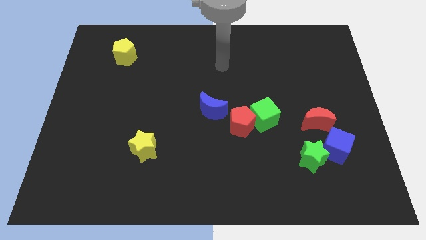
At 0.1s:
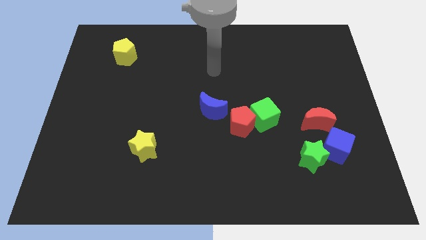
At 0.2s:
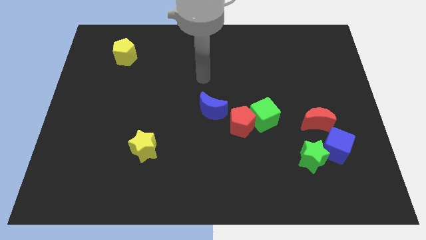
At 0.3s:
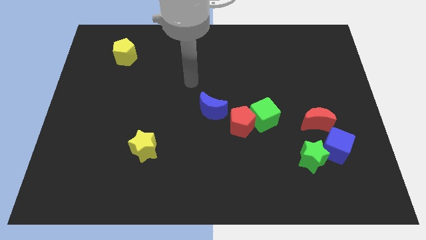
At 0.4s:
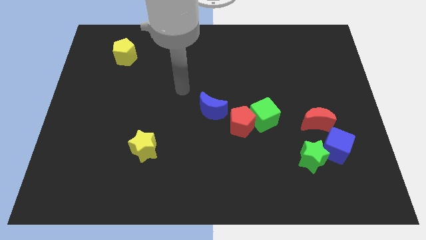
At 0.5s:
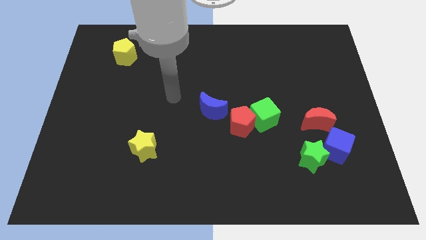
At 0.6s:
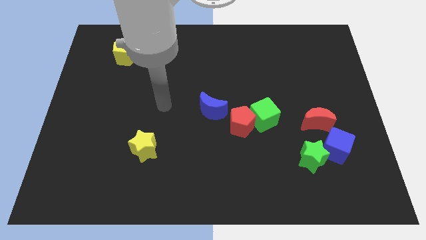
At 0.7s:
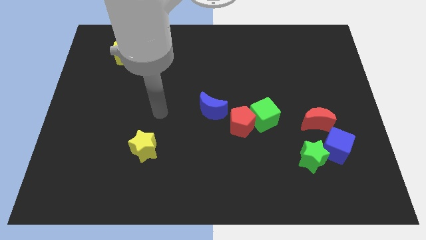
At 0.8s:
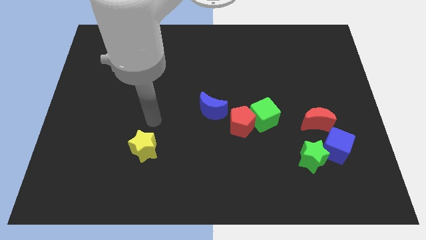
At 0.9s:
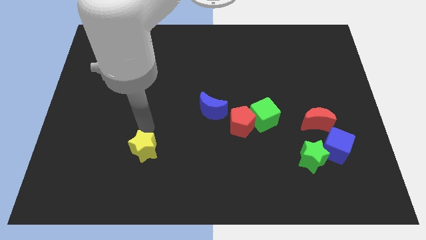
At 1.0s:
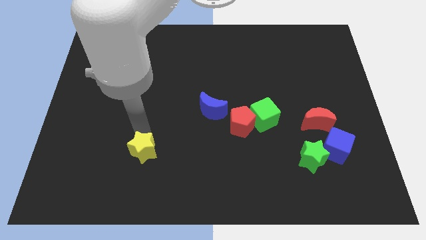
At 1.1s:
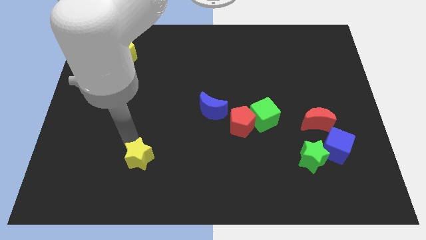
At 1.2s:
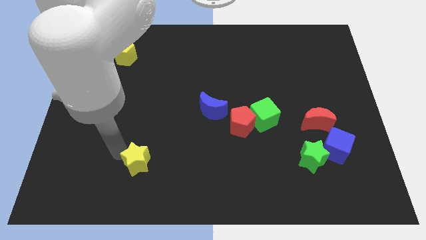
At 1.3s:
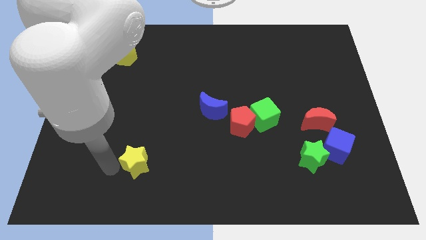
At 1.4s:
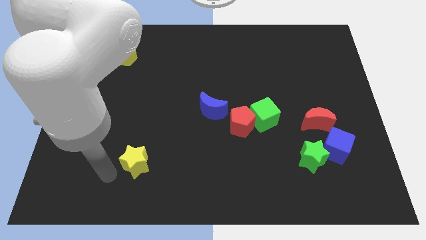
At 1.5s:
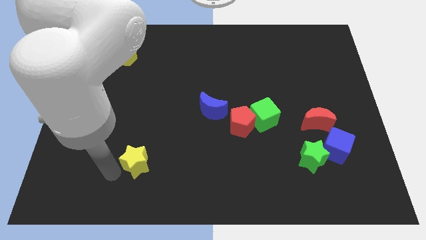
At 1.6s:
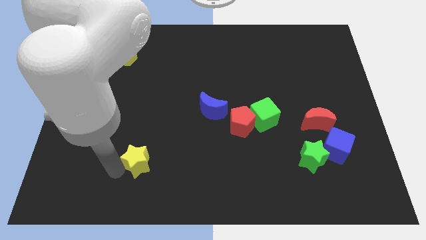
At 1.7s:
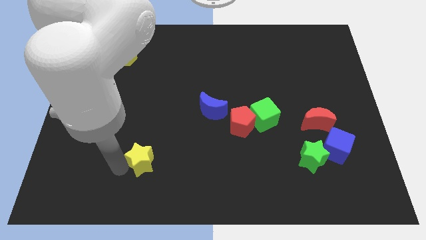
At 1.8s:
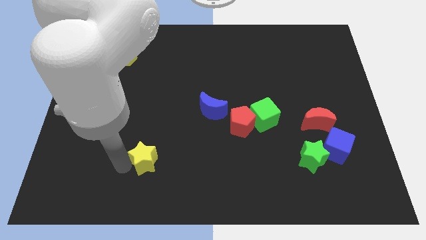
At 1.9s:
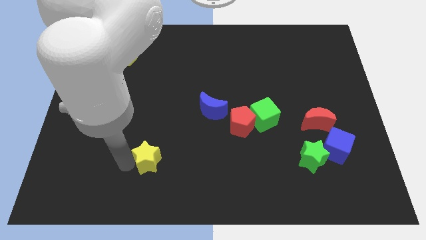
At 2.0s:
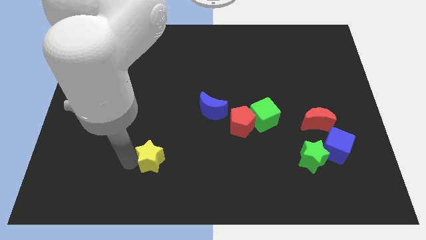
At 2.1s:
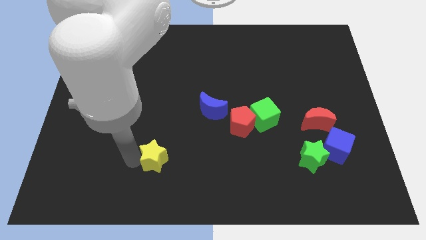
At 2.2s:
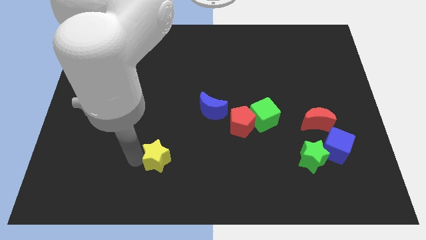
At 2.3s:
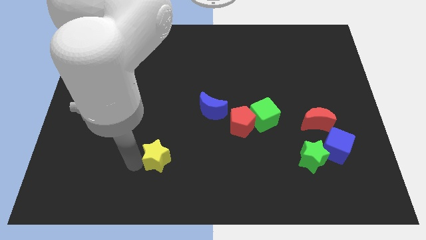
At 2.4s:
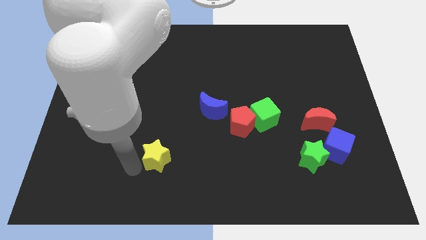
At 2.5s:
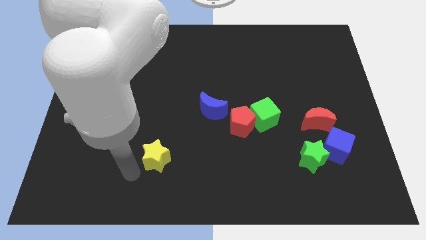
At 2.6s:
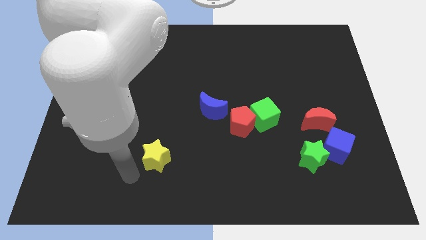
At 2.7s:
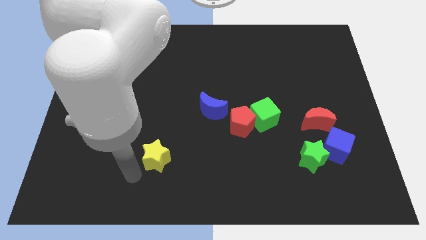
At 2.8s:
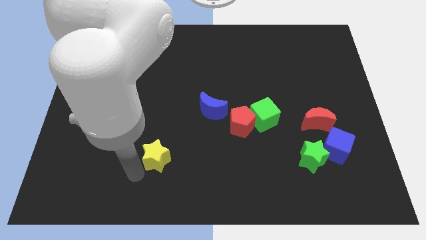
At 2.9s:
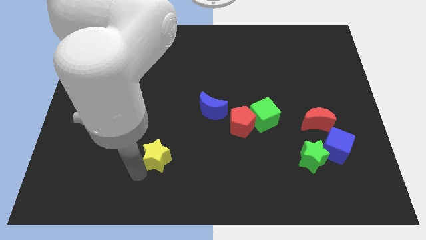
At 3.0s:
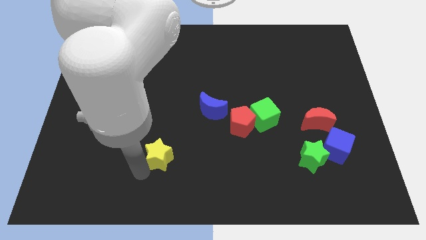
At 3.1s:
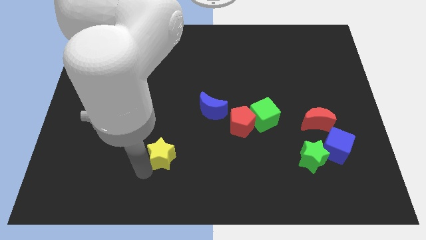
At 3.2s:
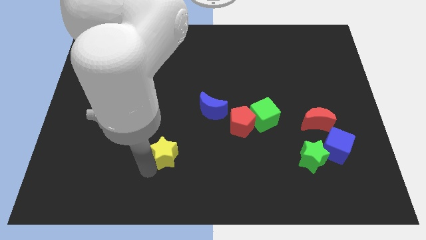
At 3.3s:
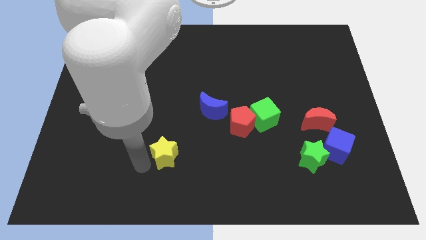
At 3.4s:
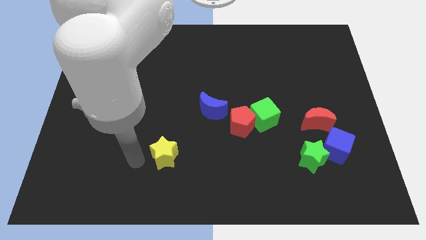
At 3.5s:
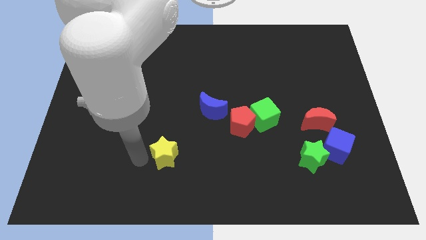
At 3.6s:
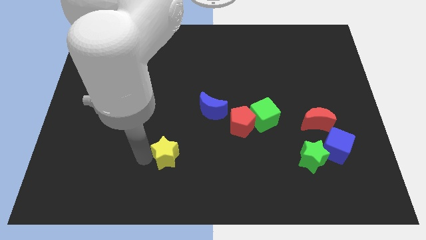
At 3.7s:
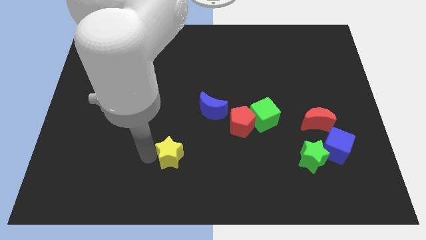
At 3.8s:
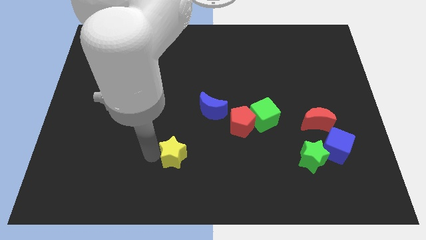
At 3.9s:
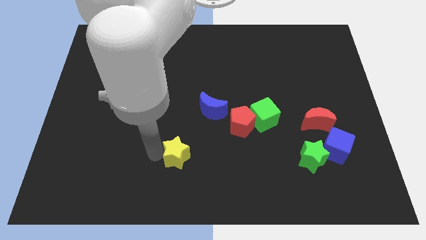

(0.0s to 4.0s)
move the yellow star a little bit to the right

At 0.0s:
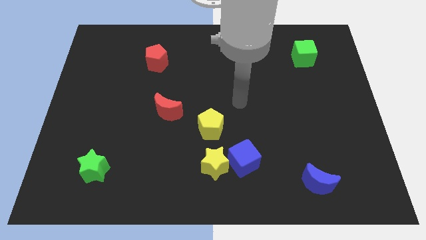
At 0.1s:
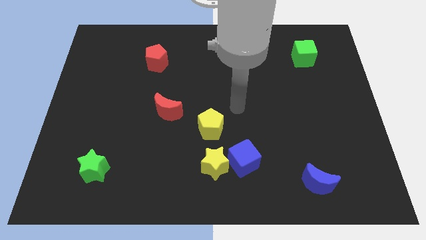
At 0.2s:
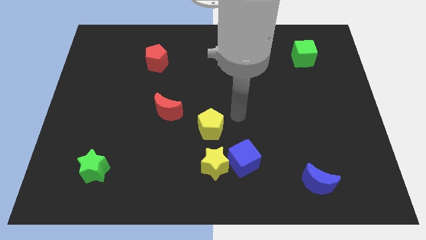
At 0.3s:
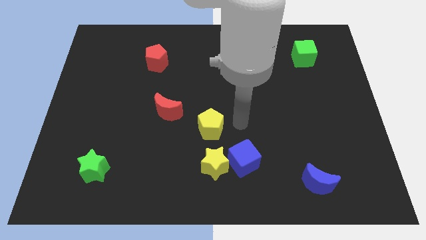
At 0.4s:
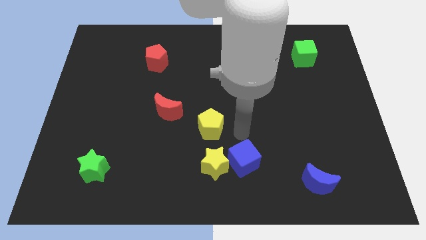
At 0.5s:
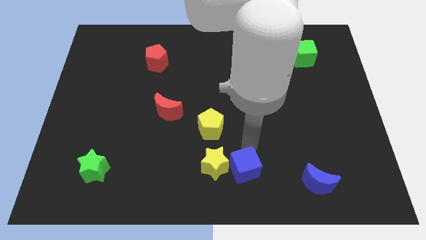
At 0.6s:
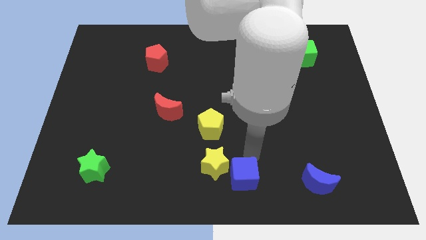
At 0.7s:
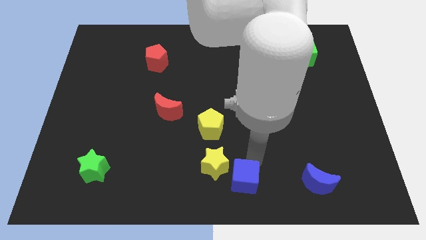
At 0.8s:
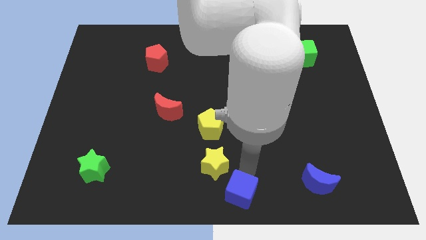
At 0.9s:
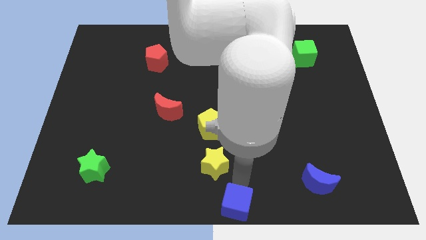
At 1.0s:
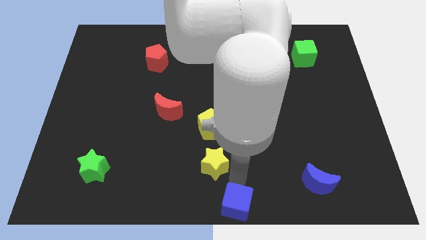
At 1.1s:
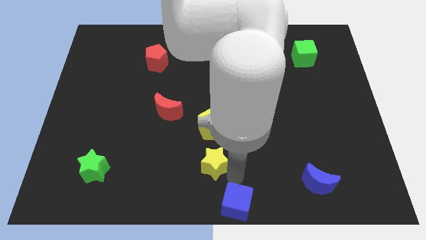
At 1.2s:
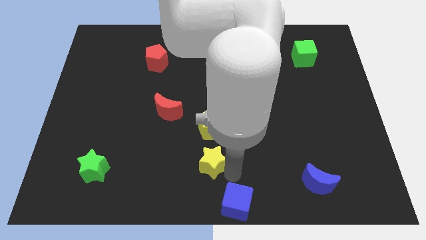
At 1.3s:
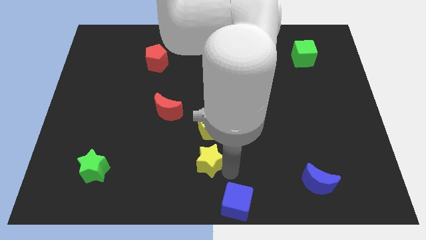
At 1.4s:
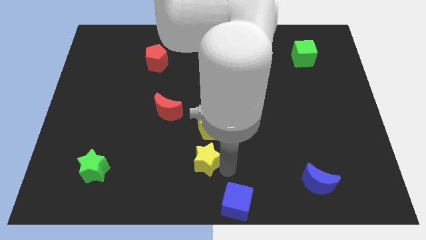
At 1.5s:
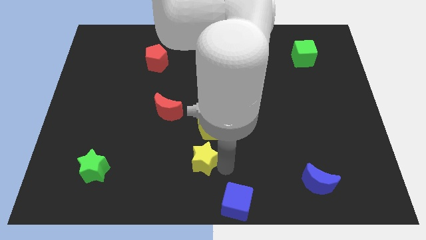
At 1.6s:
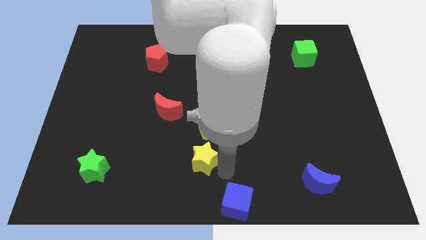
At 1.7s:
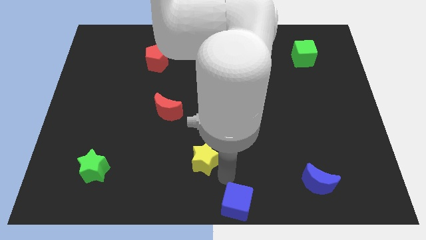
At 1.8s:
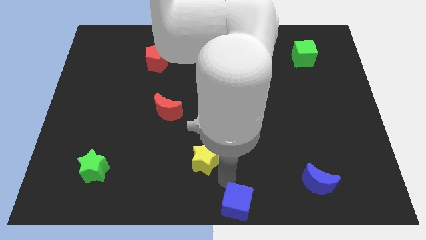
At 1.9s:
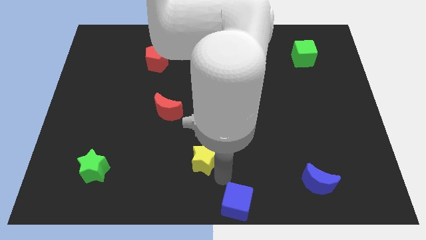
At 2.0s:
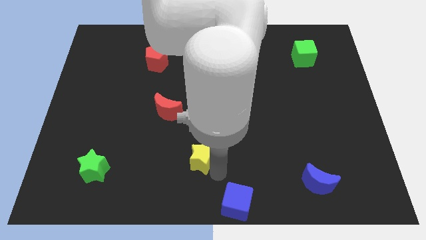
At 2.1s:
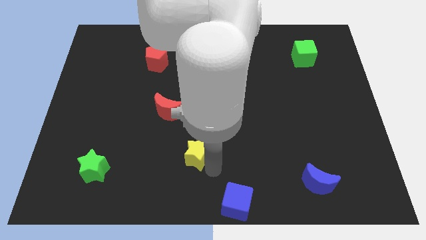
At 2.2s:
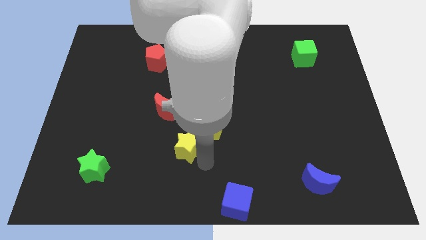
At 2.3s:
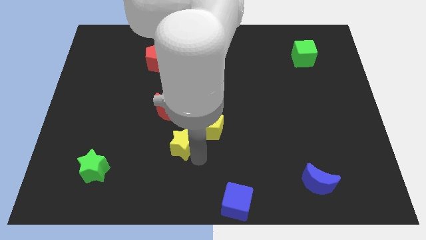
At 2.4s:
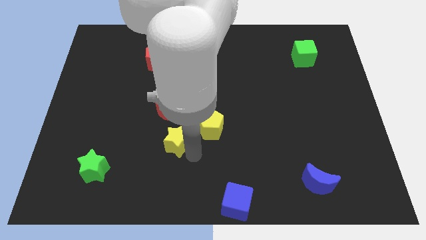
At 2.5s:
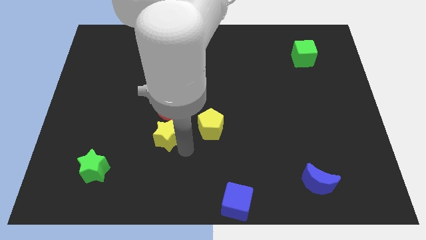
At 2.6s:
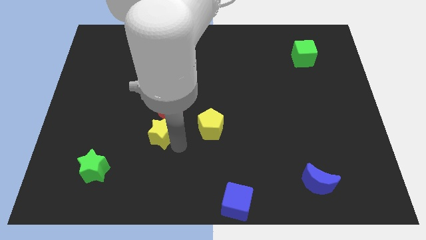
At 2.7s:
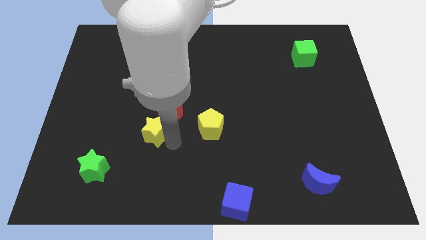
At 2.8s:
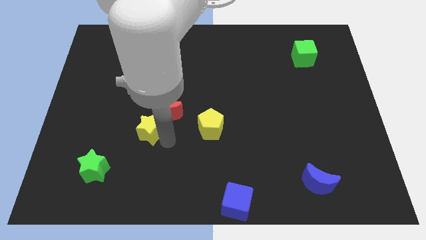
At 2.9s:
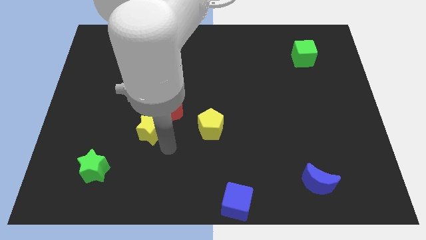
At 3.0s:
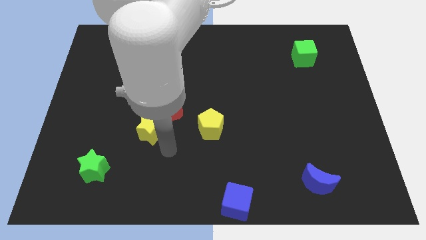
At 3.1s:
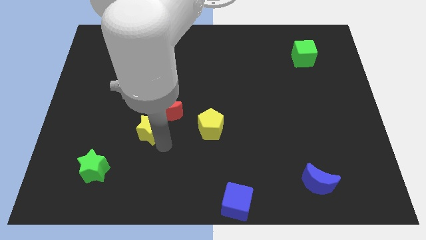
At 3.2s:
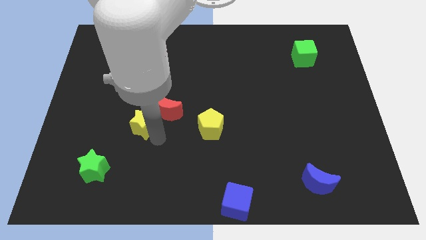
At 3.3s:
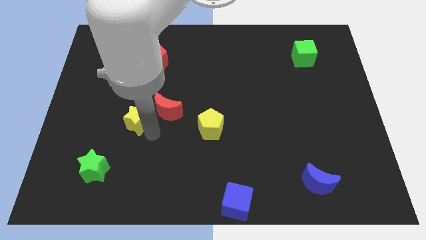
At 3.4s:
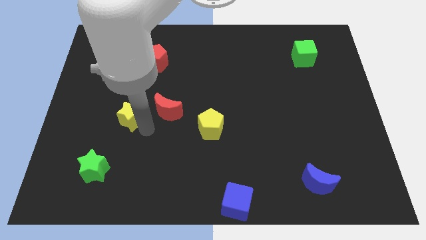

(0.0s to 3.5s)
push the yellow star upwards and left

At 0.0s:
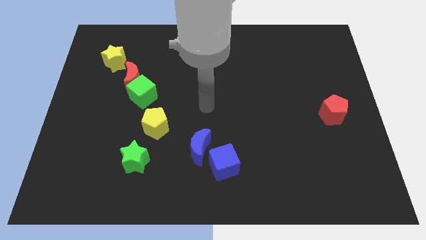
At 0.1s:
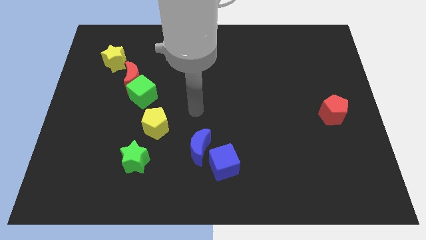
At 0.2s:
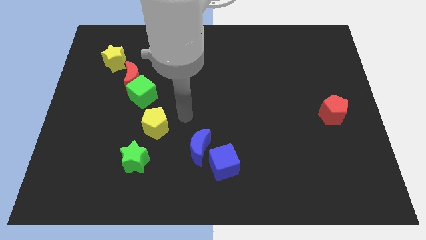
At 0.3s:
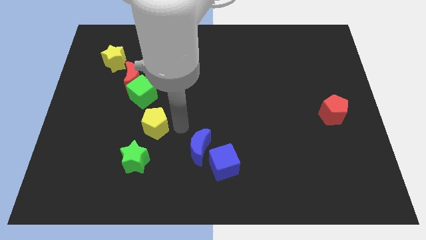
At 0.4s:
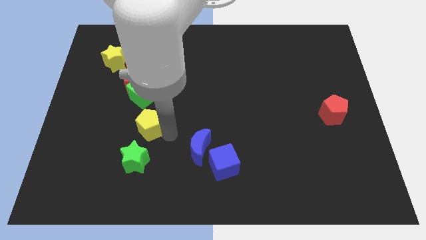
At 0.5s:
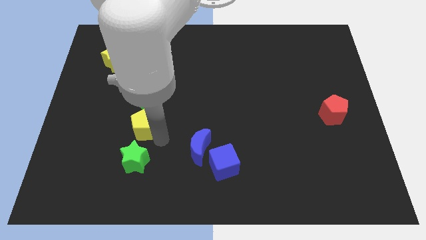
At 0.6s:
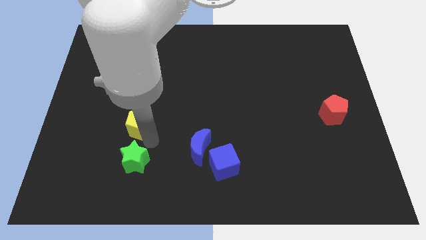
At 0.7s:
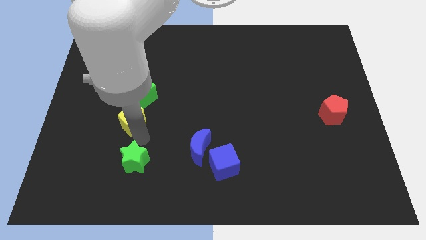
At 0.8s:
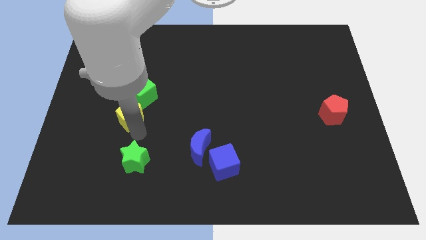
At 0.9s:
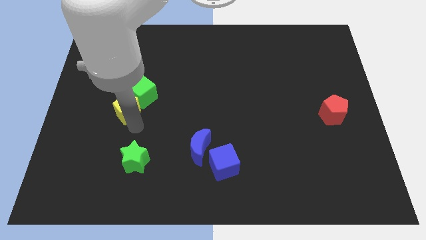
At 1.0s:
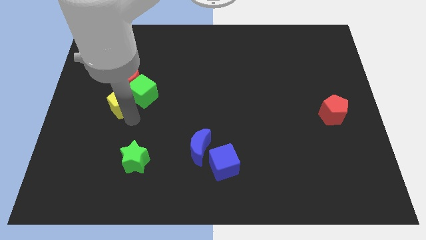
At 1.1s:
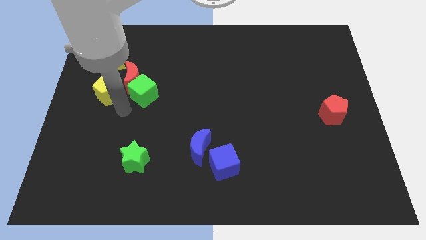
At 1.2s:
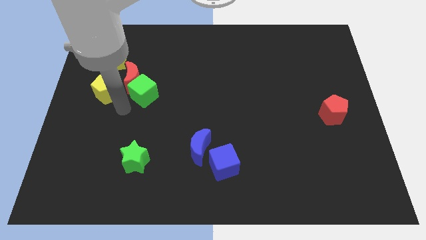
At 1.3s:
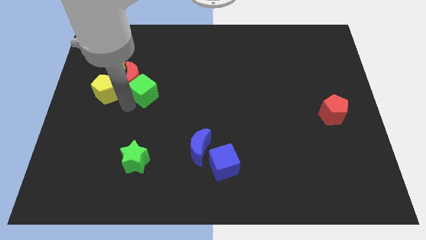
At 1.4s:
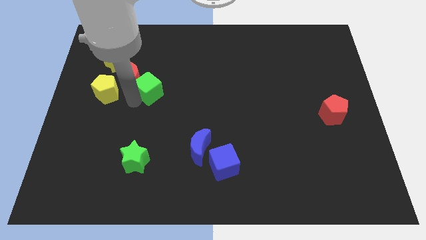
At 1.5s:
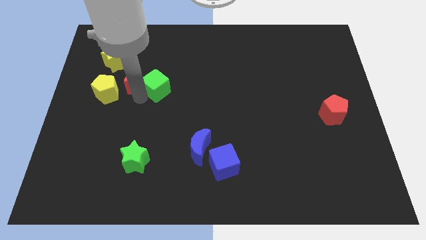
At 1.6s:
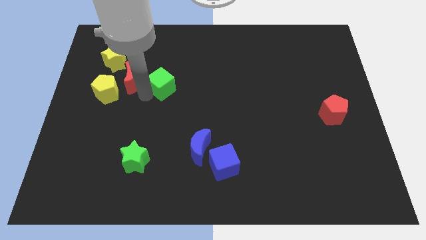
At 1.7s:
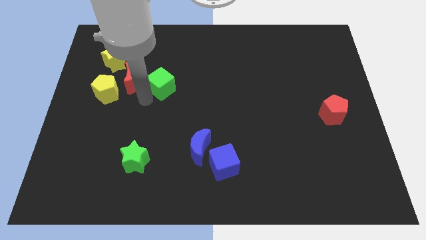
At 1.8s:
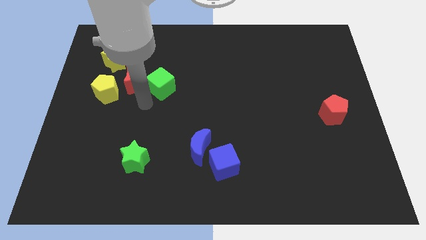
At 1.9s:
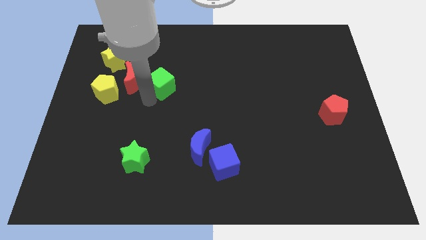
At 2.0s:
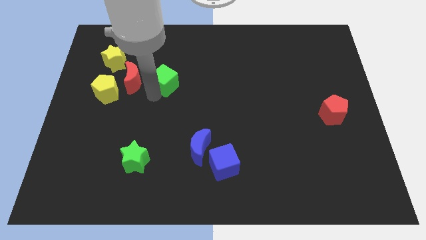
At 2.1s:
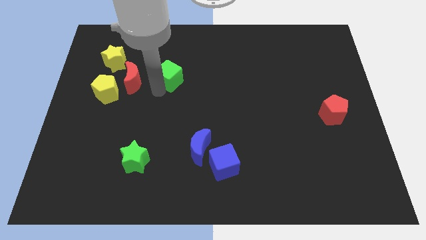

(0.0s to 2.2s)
slide the green cube diagonally up and right a bit
